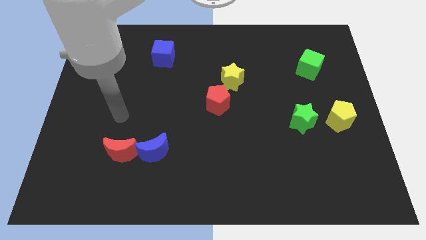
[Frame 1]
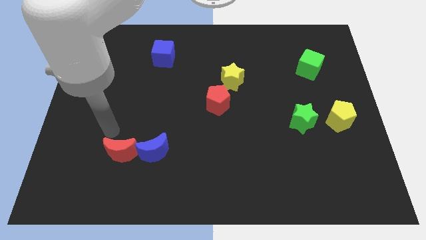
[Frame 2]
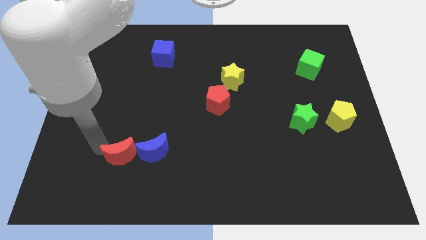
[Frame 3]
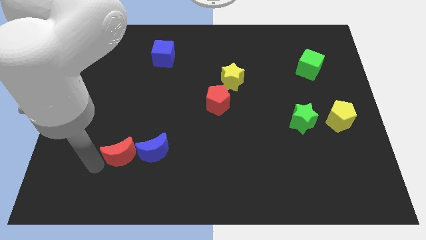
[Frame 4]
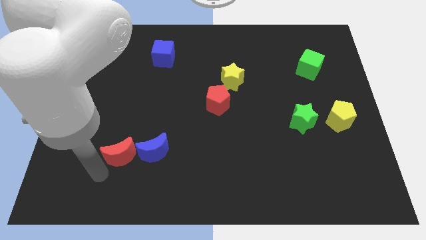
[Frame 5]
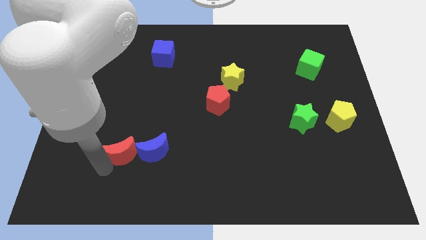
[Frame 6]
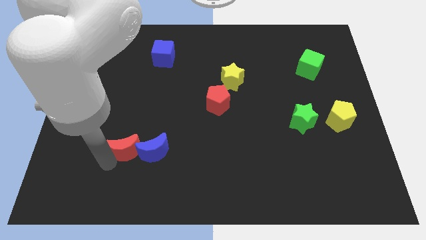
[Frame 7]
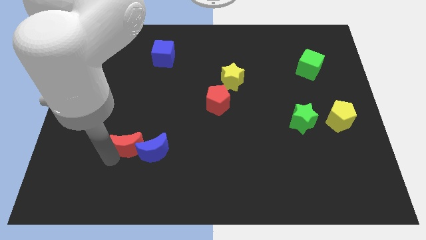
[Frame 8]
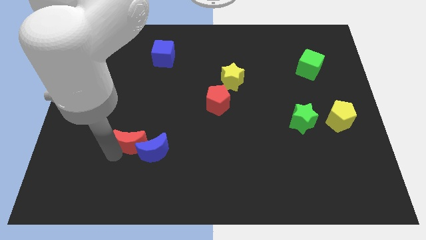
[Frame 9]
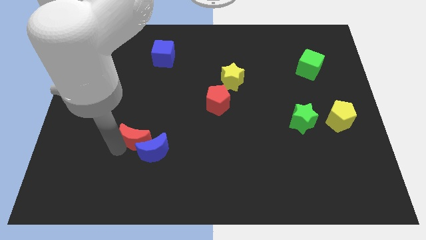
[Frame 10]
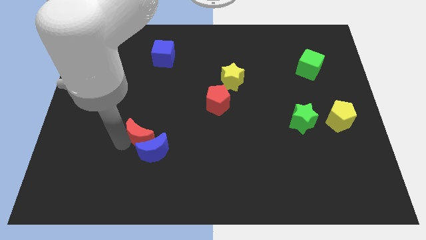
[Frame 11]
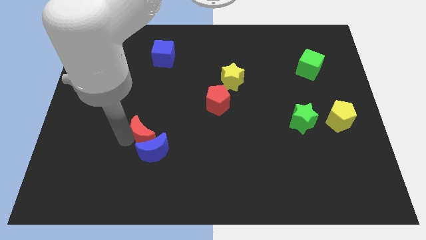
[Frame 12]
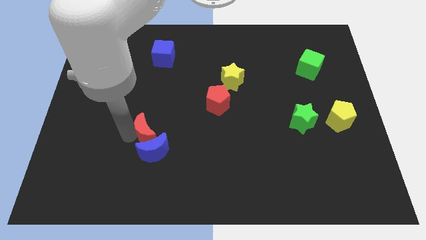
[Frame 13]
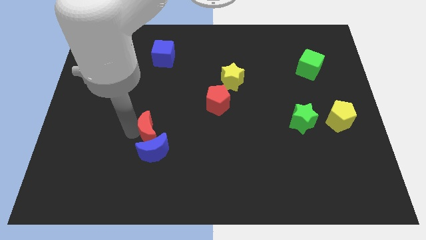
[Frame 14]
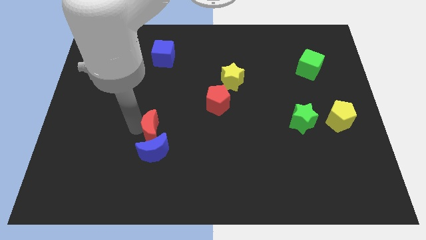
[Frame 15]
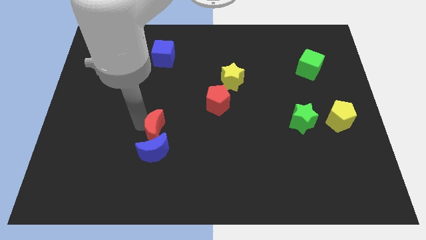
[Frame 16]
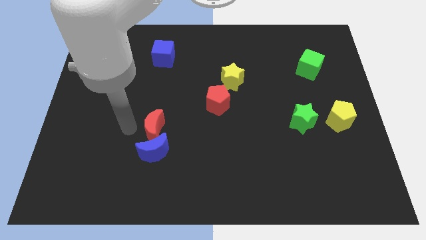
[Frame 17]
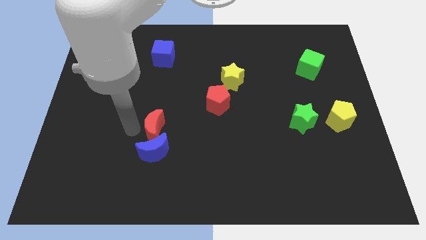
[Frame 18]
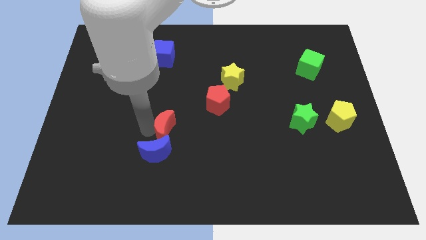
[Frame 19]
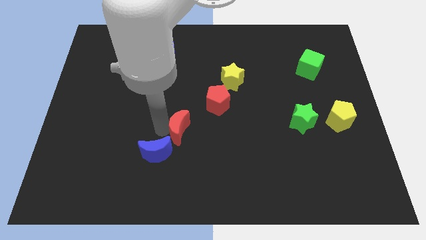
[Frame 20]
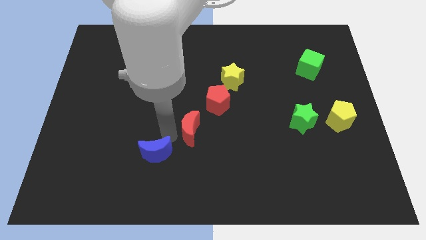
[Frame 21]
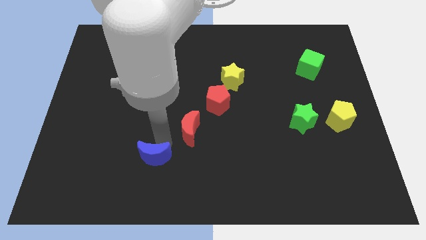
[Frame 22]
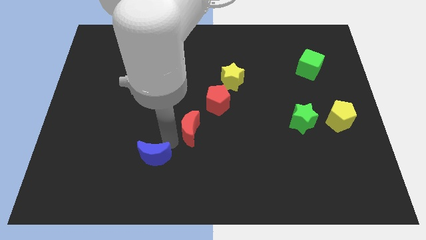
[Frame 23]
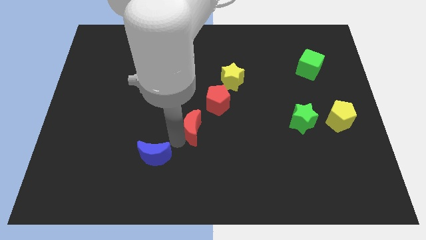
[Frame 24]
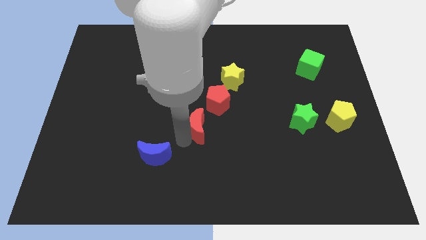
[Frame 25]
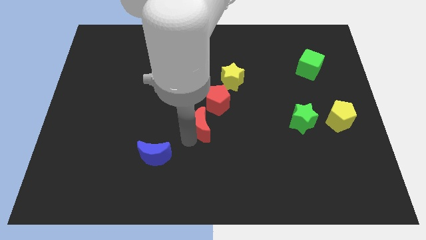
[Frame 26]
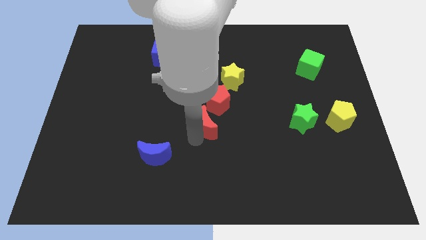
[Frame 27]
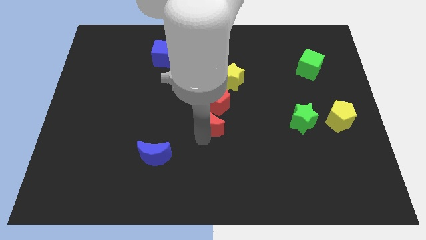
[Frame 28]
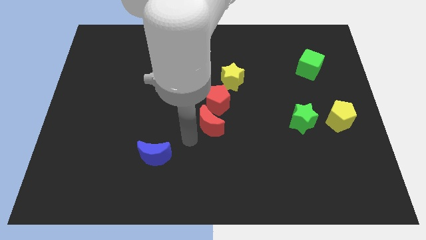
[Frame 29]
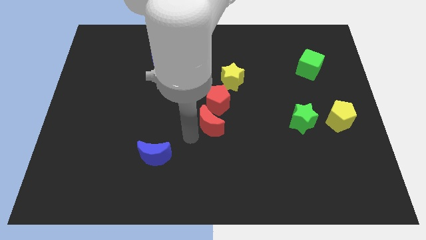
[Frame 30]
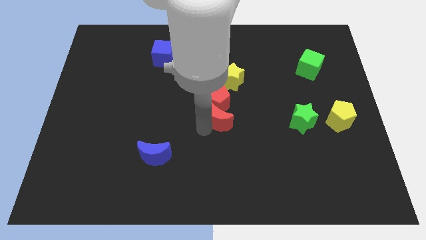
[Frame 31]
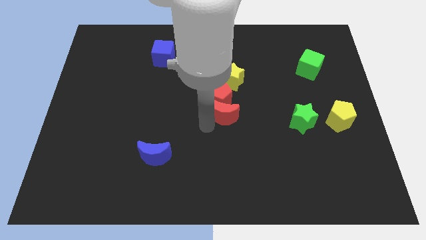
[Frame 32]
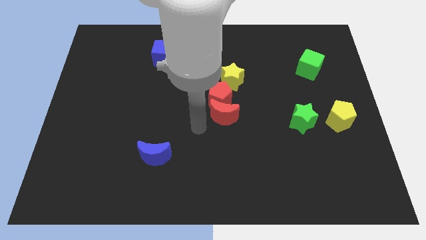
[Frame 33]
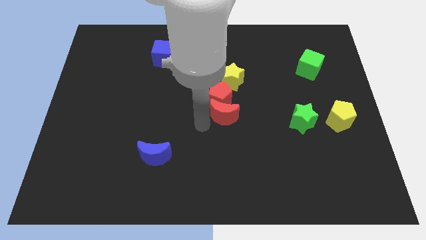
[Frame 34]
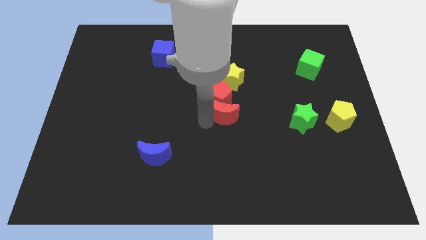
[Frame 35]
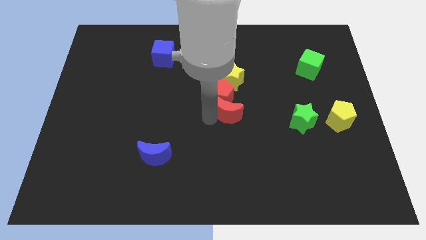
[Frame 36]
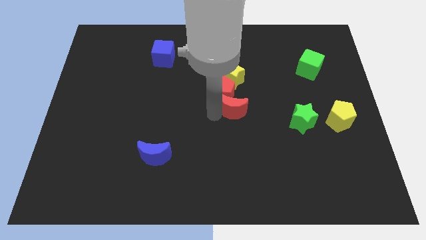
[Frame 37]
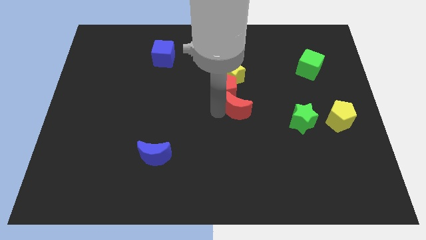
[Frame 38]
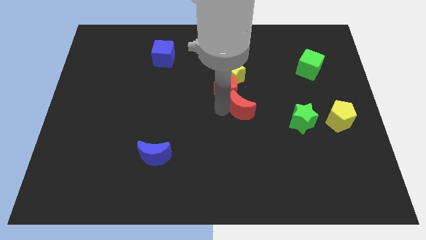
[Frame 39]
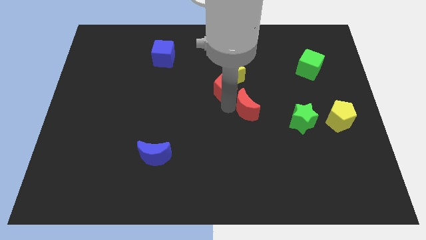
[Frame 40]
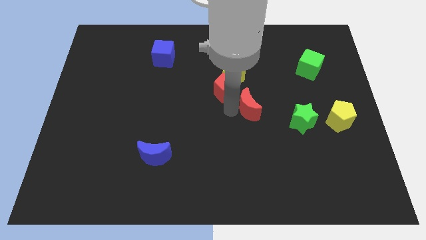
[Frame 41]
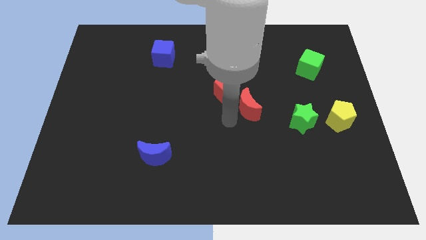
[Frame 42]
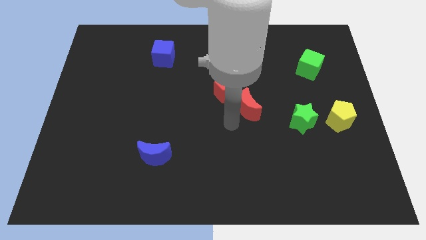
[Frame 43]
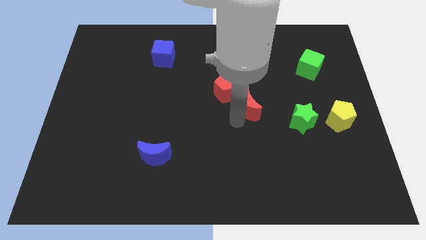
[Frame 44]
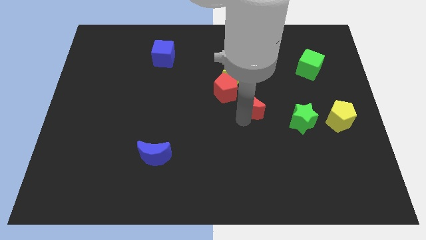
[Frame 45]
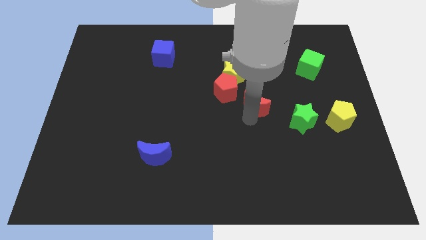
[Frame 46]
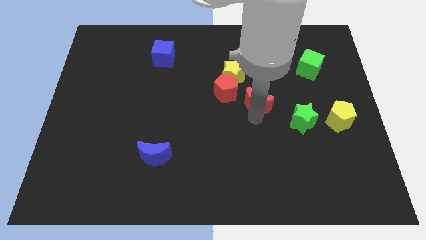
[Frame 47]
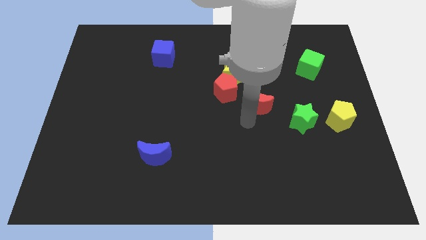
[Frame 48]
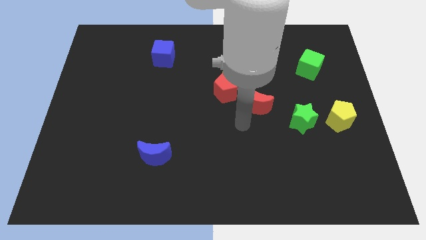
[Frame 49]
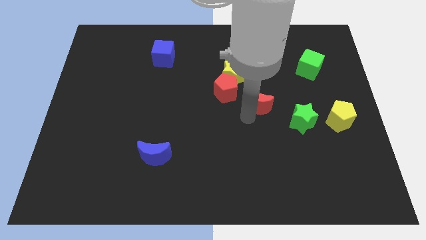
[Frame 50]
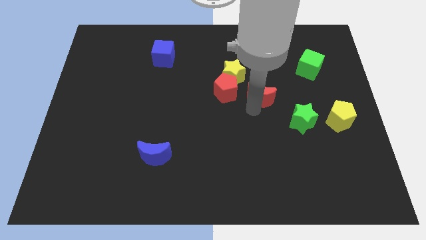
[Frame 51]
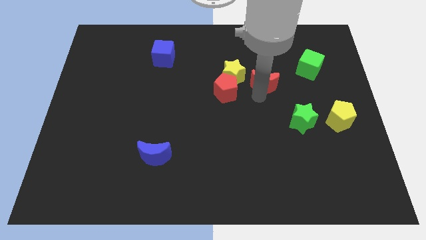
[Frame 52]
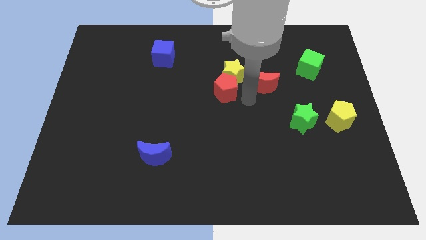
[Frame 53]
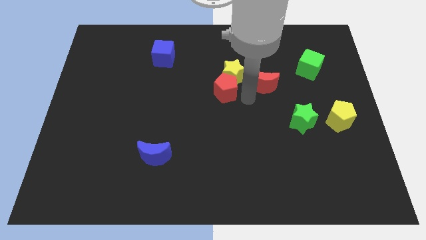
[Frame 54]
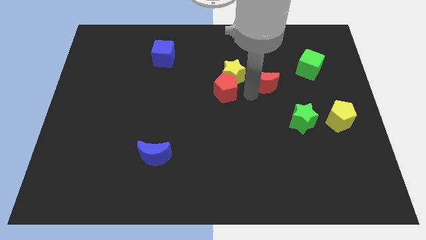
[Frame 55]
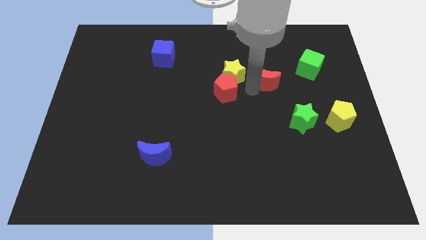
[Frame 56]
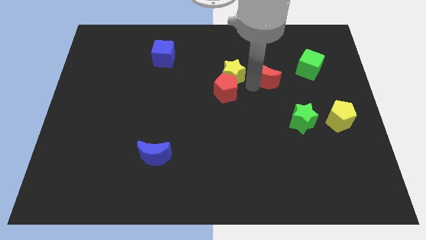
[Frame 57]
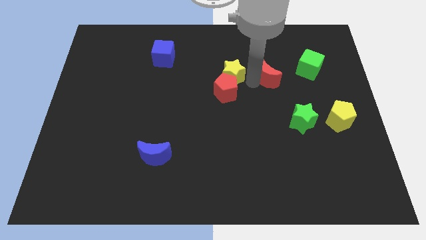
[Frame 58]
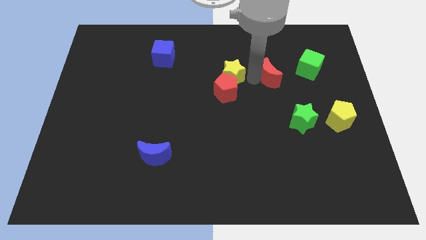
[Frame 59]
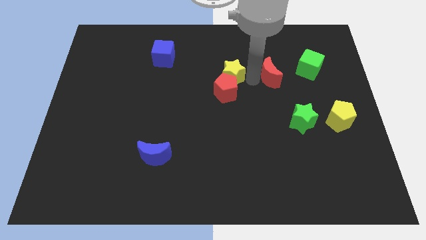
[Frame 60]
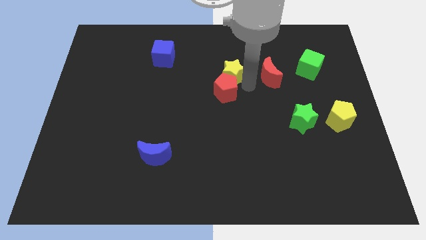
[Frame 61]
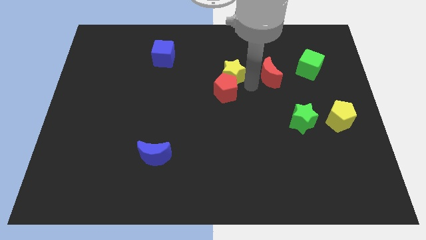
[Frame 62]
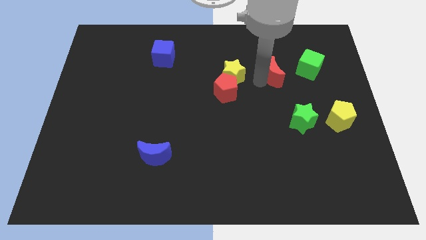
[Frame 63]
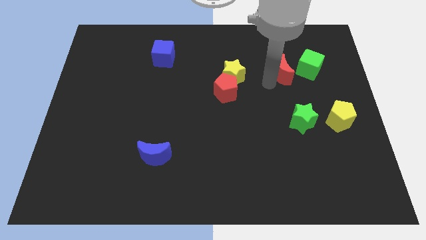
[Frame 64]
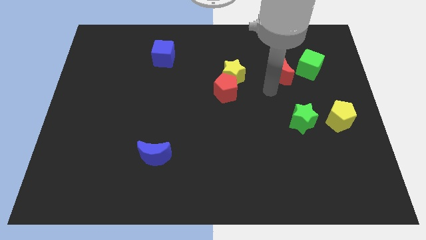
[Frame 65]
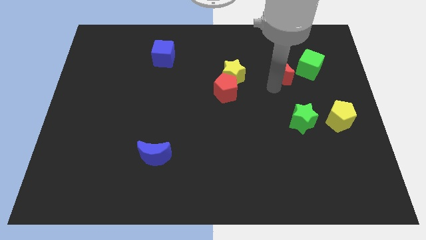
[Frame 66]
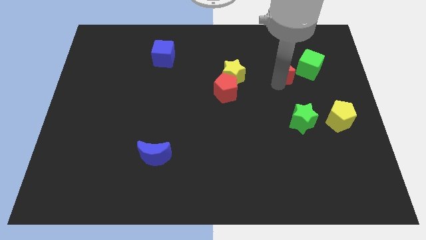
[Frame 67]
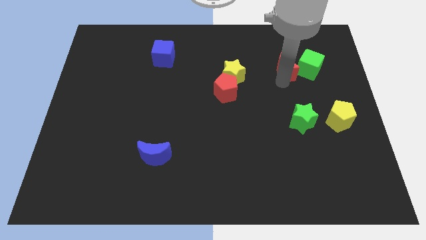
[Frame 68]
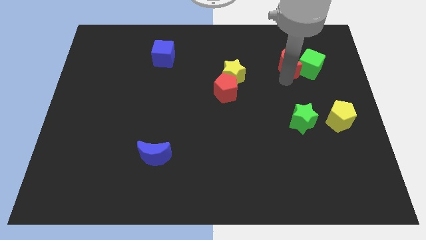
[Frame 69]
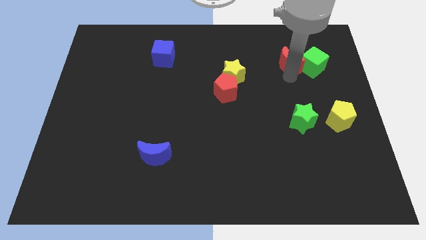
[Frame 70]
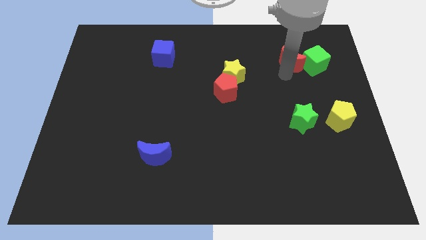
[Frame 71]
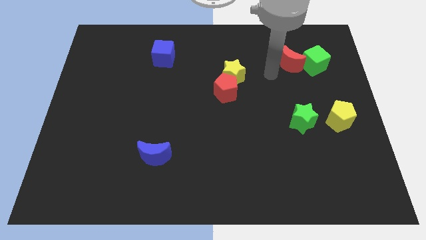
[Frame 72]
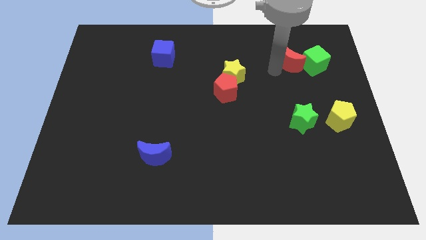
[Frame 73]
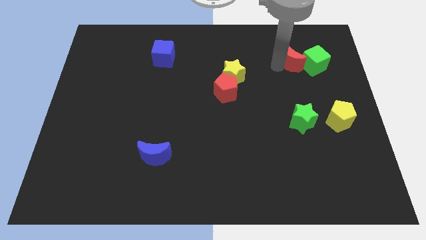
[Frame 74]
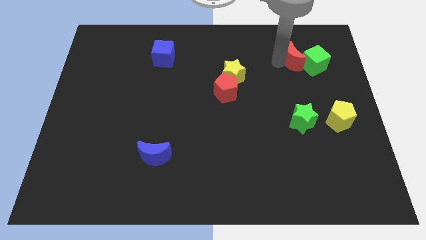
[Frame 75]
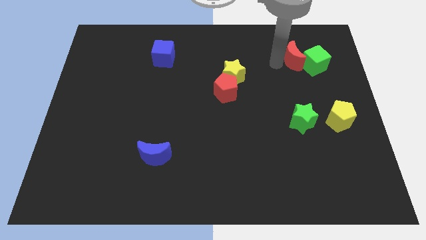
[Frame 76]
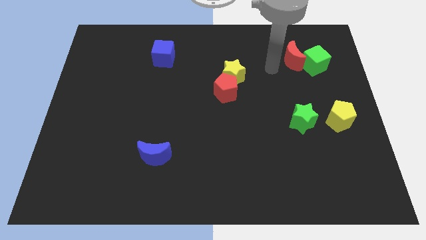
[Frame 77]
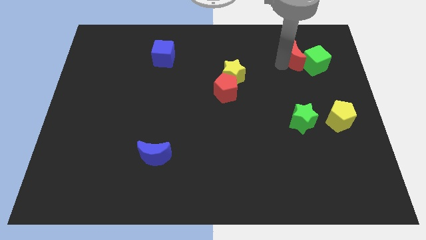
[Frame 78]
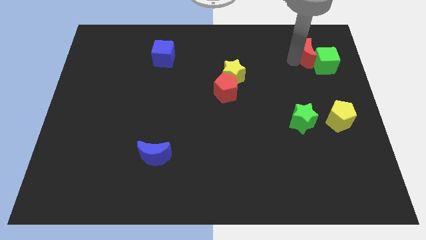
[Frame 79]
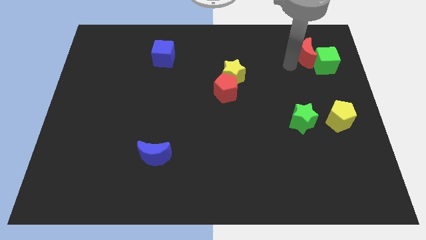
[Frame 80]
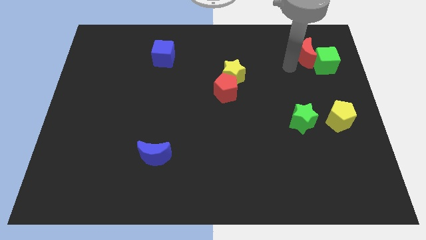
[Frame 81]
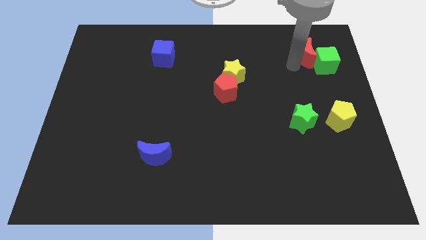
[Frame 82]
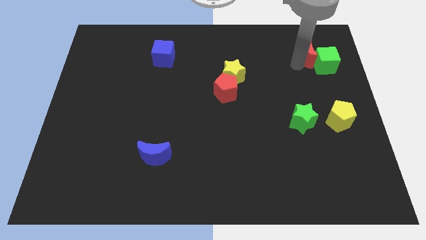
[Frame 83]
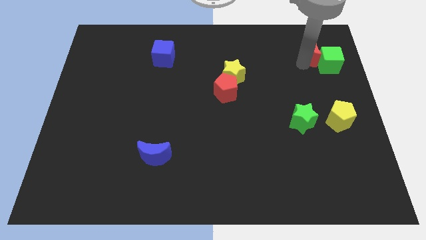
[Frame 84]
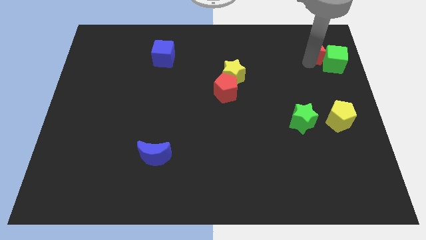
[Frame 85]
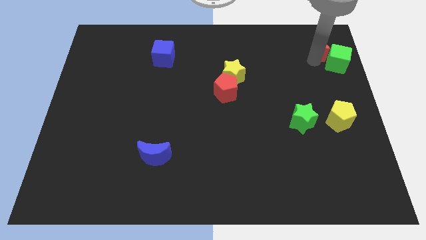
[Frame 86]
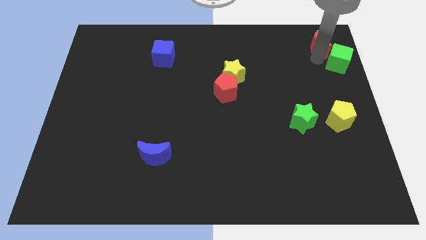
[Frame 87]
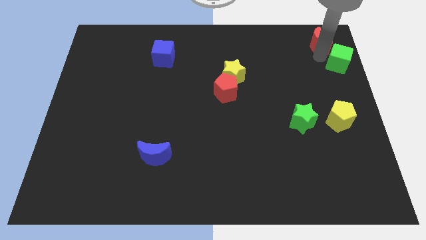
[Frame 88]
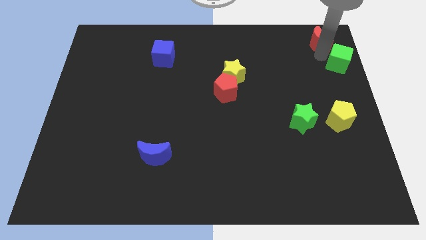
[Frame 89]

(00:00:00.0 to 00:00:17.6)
slide the red moon to the top right corner
